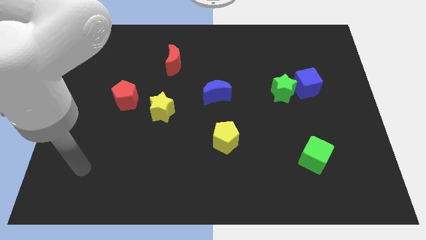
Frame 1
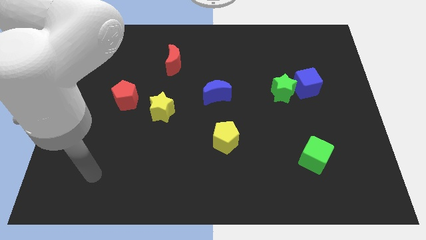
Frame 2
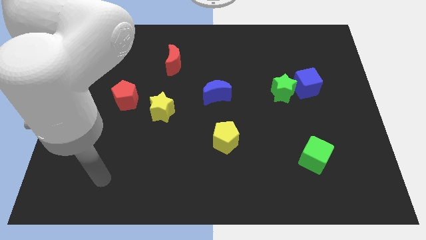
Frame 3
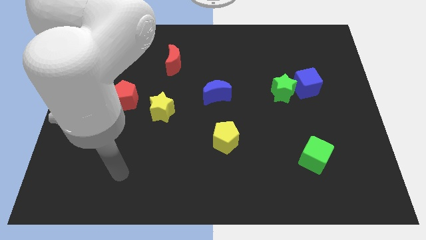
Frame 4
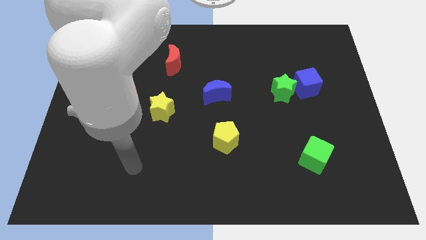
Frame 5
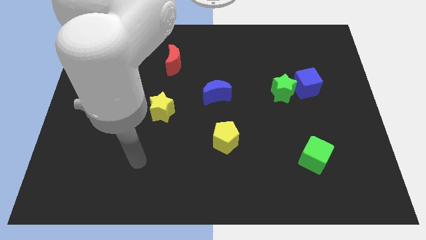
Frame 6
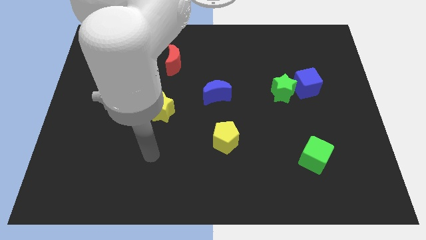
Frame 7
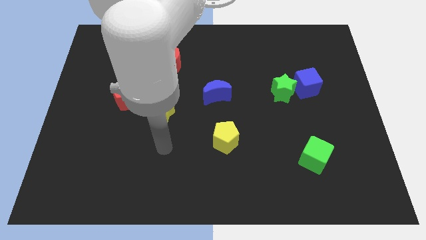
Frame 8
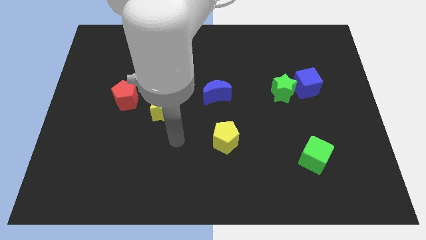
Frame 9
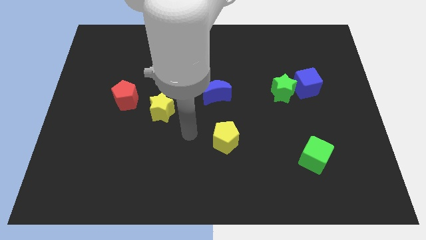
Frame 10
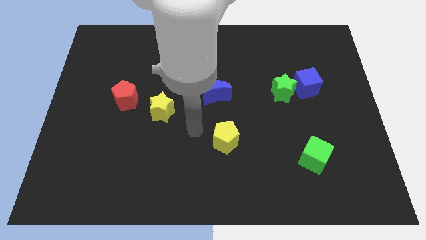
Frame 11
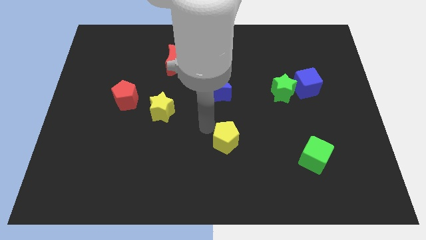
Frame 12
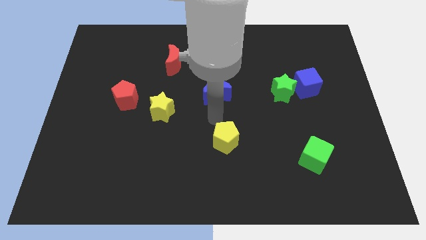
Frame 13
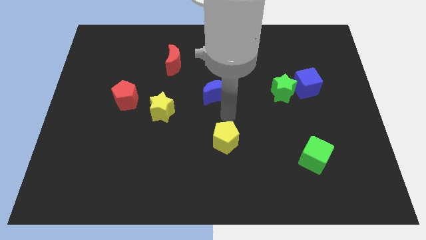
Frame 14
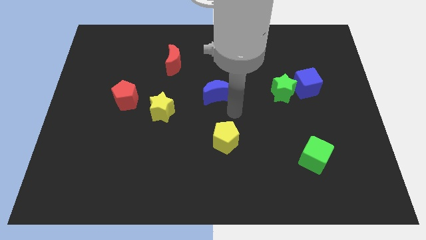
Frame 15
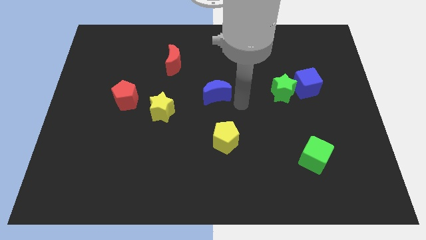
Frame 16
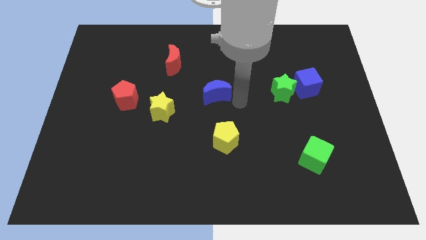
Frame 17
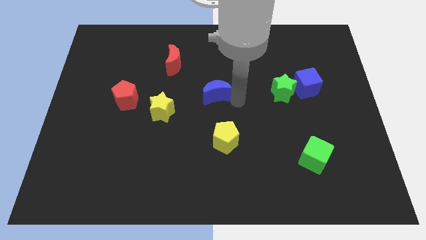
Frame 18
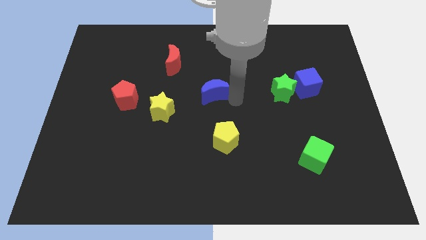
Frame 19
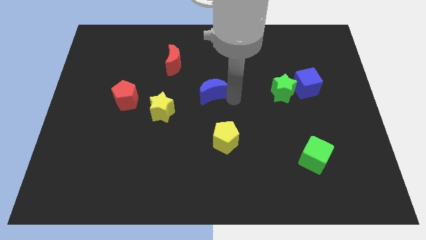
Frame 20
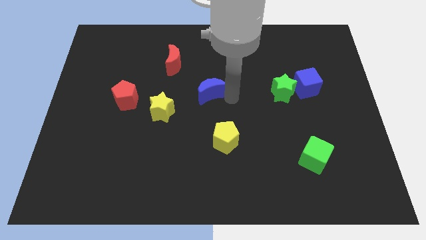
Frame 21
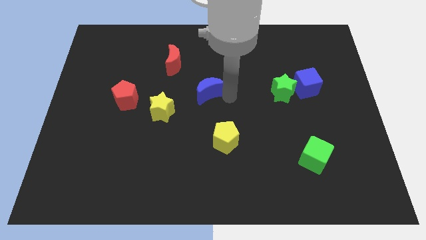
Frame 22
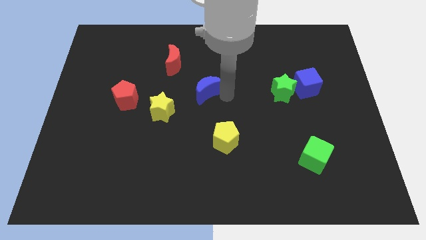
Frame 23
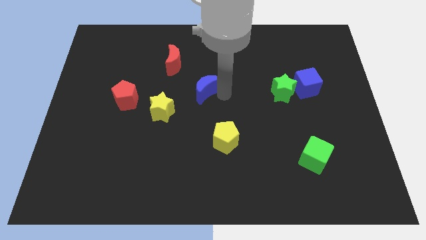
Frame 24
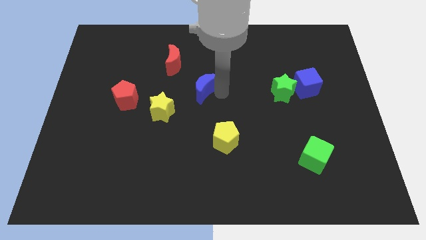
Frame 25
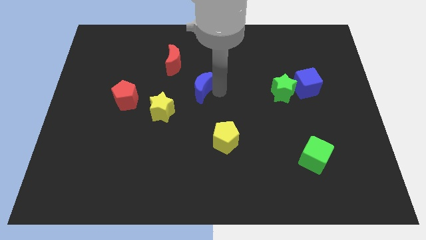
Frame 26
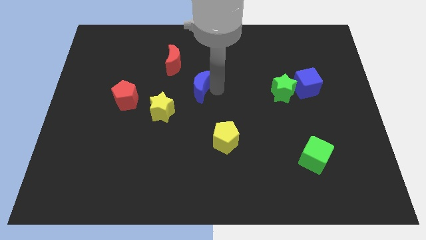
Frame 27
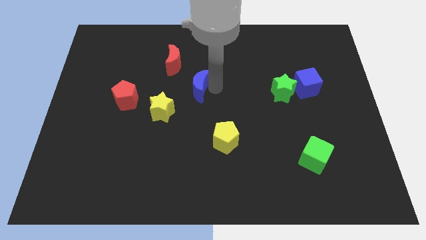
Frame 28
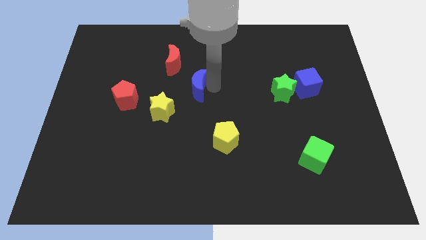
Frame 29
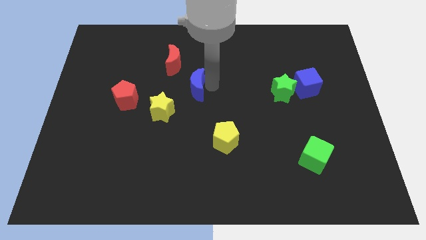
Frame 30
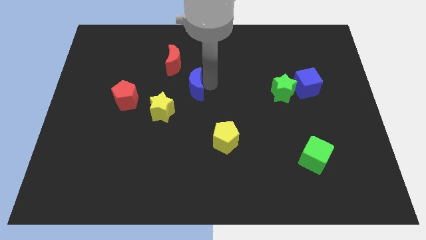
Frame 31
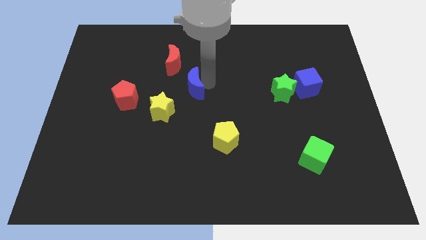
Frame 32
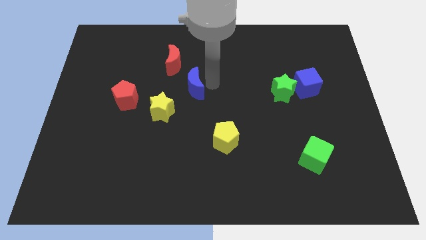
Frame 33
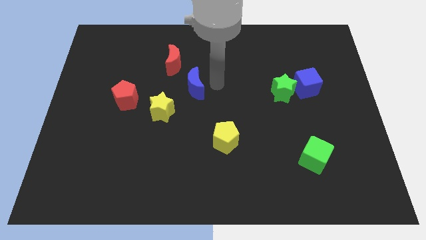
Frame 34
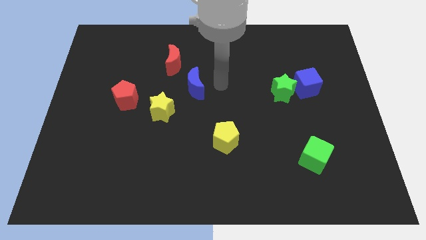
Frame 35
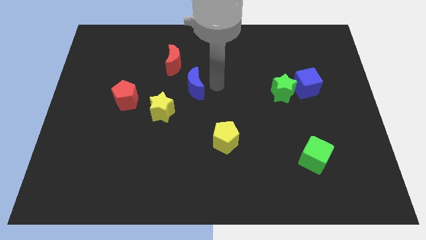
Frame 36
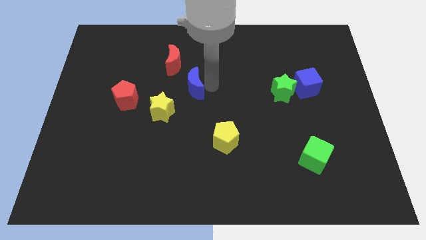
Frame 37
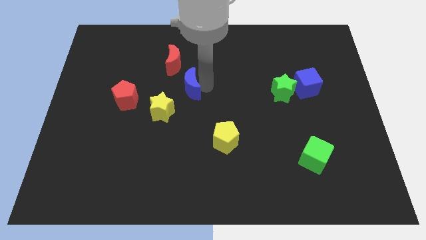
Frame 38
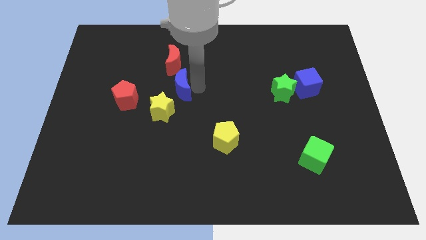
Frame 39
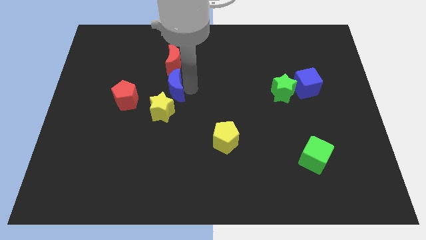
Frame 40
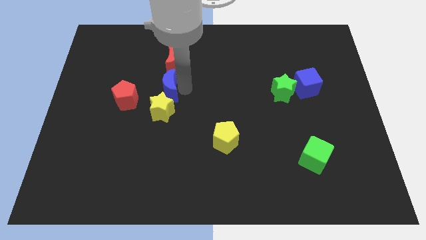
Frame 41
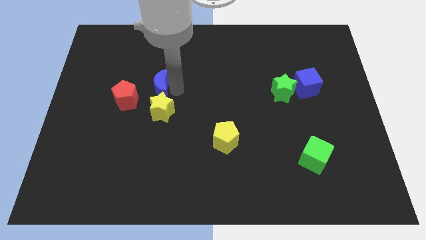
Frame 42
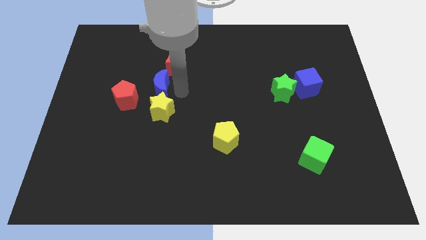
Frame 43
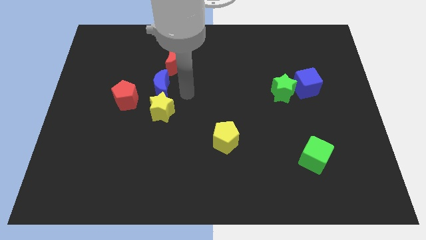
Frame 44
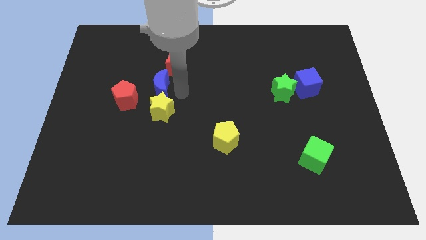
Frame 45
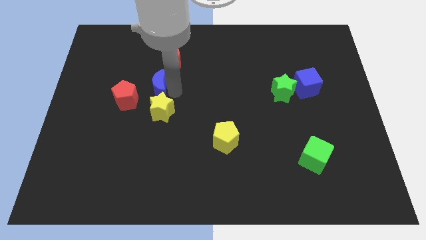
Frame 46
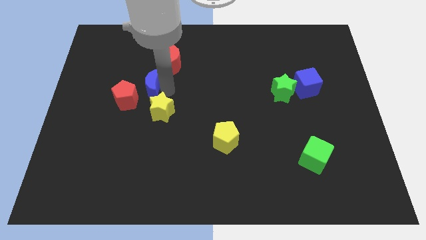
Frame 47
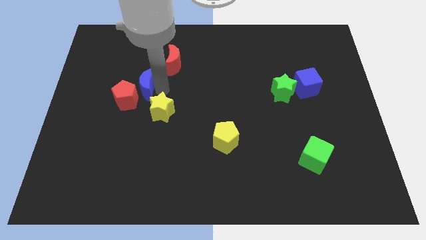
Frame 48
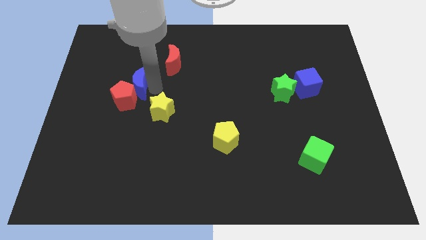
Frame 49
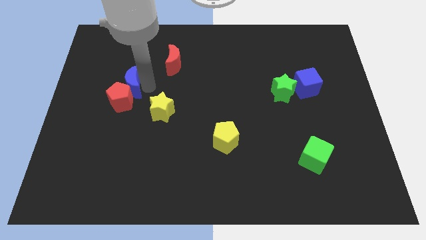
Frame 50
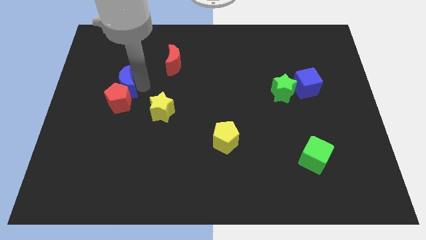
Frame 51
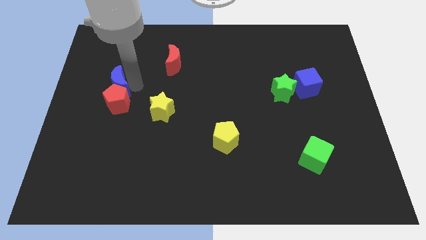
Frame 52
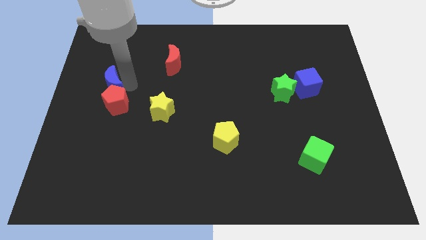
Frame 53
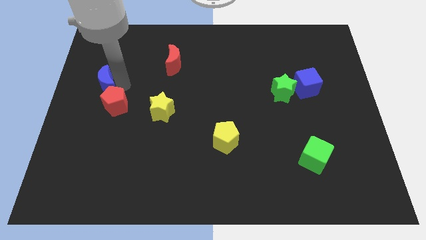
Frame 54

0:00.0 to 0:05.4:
put the blue moon to the center left
